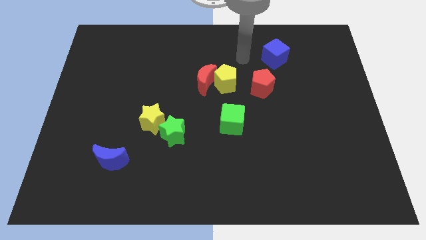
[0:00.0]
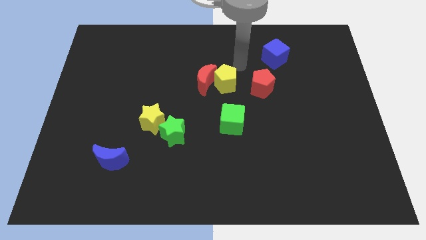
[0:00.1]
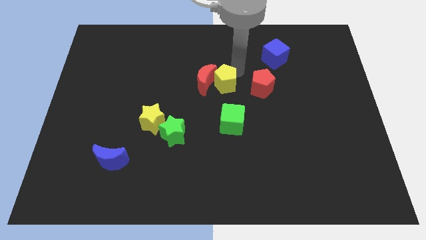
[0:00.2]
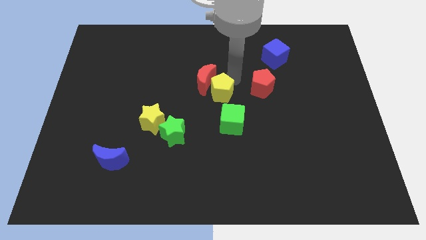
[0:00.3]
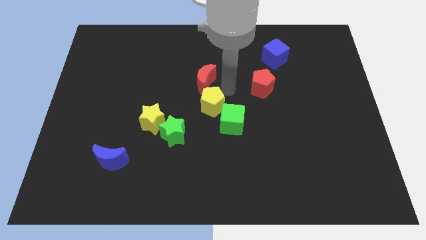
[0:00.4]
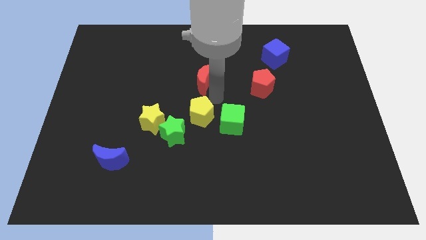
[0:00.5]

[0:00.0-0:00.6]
pull the red moon apart from the yellow pentagon

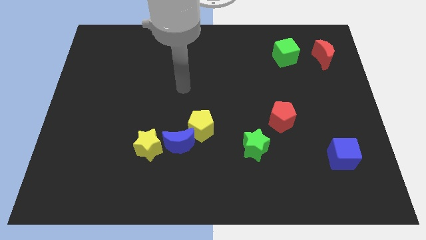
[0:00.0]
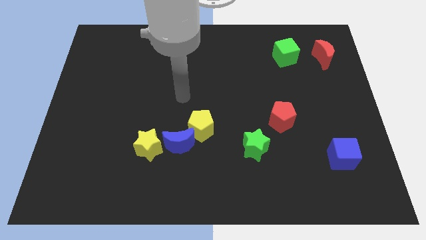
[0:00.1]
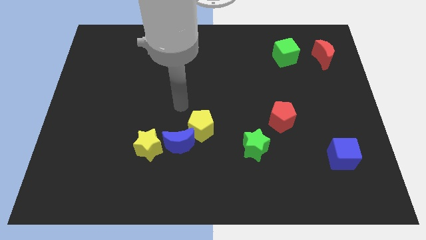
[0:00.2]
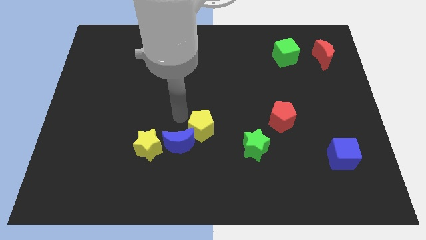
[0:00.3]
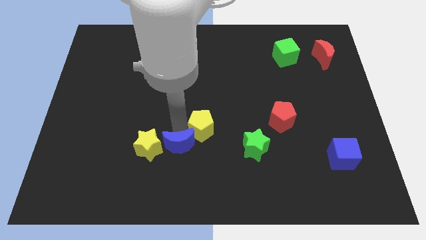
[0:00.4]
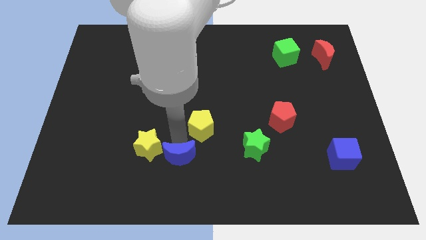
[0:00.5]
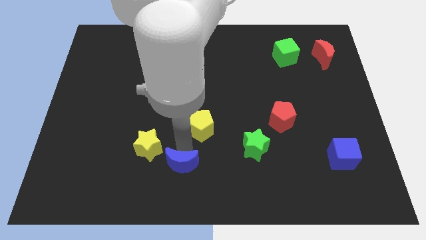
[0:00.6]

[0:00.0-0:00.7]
move the yellow pentagon away from the blue moon

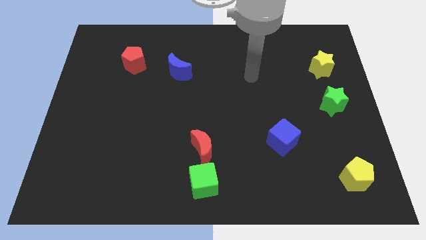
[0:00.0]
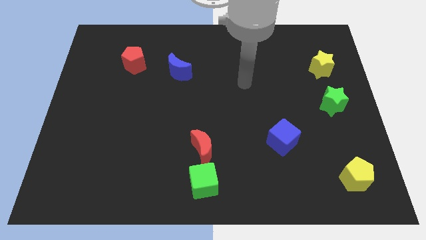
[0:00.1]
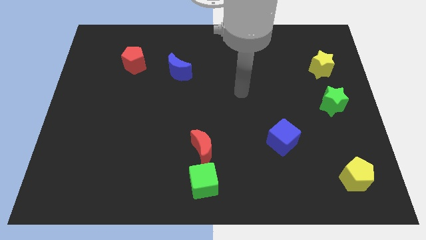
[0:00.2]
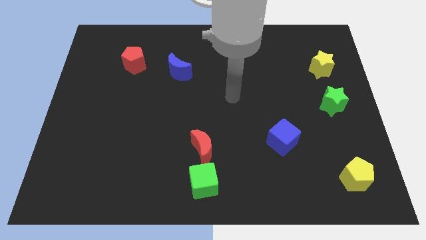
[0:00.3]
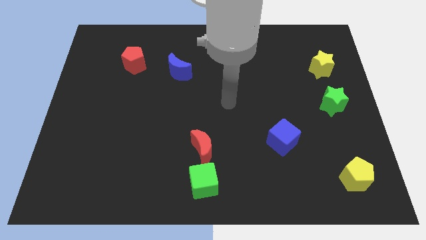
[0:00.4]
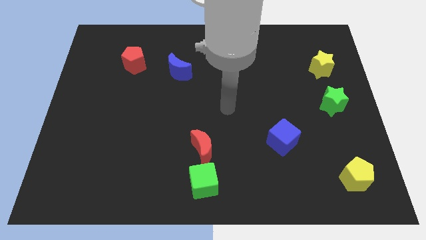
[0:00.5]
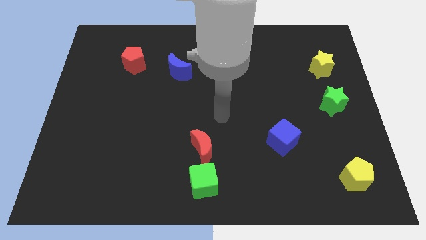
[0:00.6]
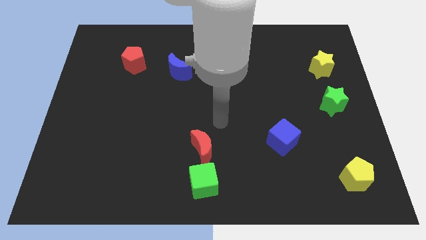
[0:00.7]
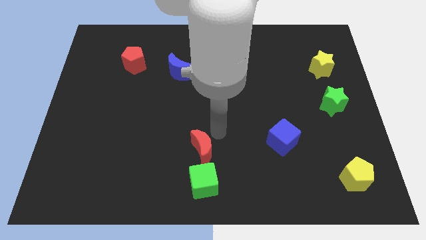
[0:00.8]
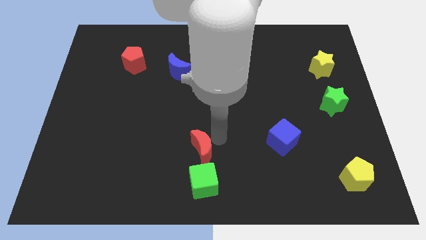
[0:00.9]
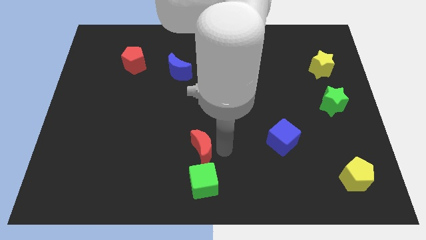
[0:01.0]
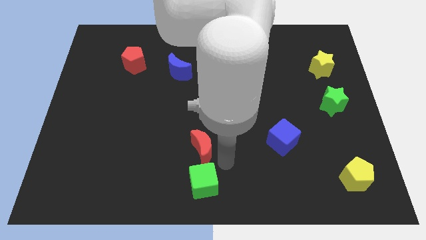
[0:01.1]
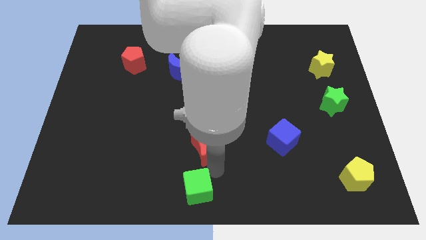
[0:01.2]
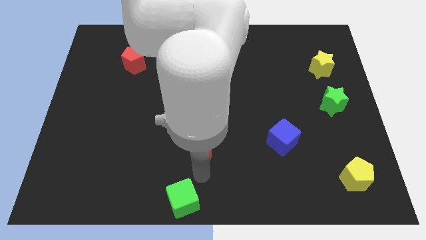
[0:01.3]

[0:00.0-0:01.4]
separate the red moon from the green cube

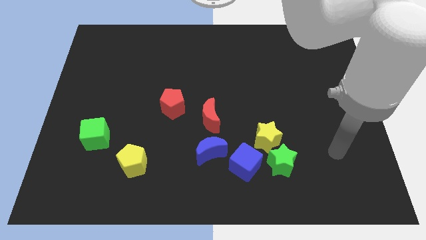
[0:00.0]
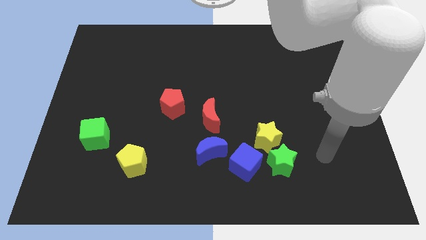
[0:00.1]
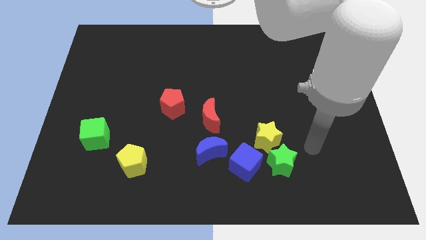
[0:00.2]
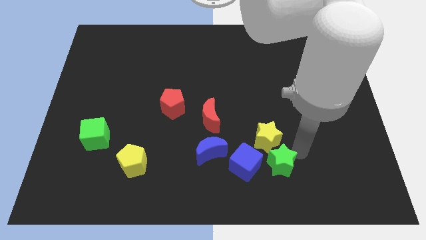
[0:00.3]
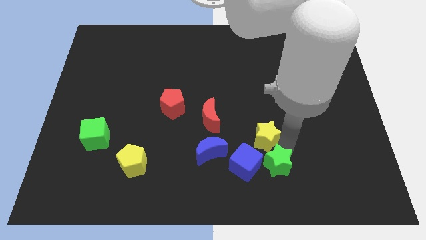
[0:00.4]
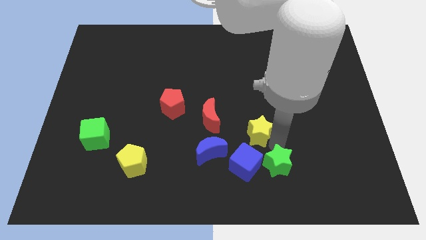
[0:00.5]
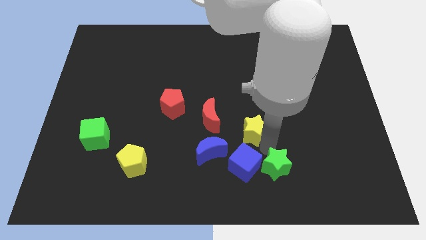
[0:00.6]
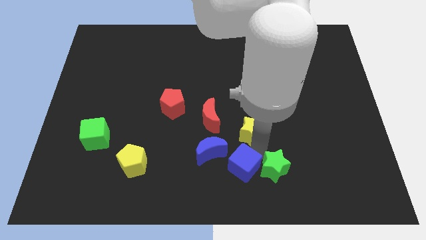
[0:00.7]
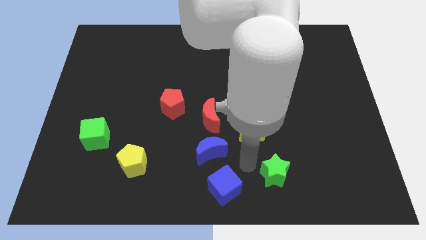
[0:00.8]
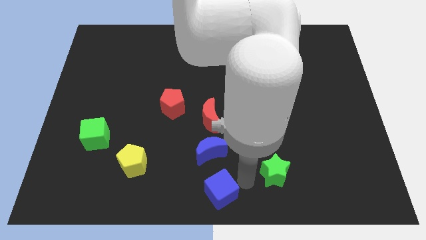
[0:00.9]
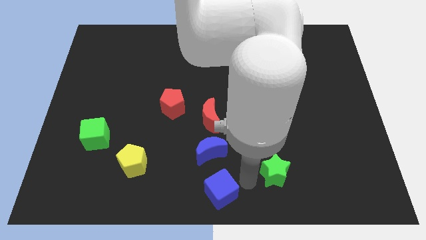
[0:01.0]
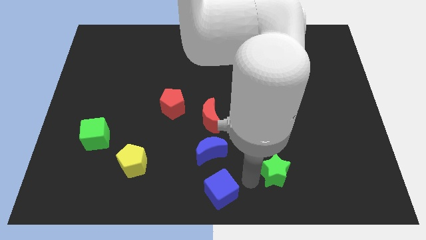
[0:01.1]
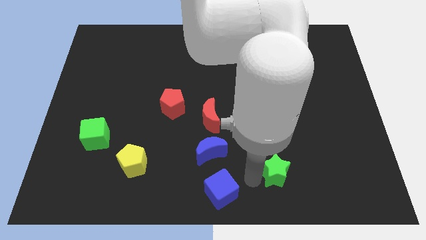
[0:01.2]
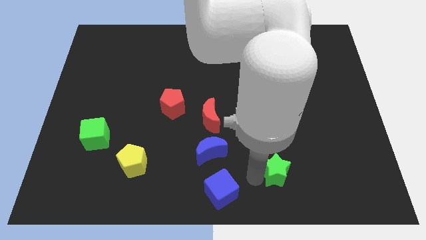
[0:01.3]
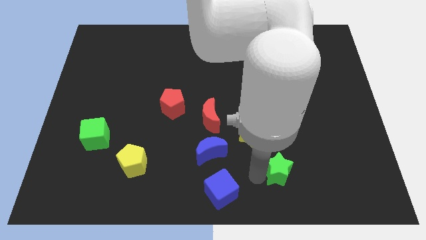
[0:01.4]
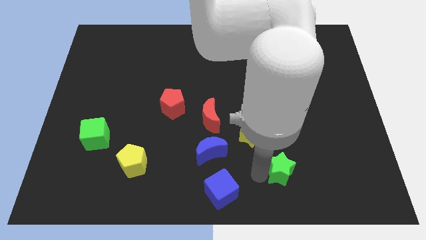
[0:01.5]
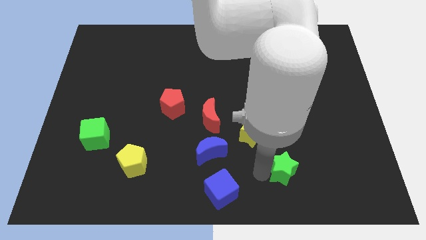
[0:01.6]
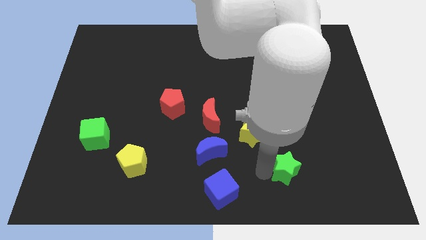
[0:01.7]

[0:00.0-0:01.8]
move the green star away from the yellow star and blue cube

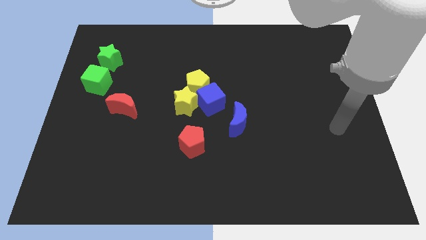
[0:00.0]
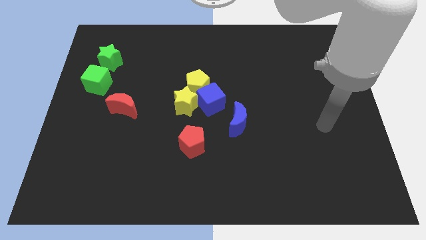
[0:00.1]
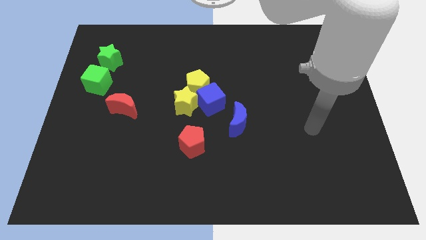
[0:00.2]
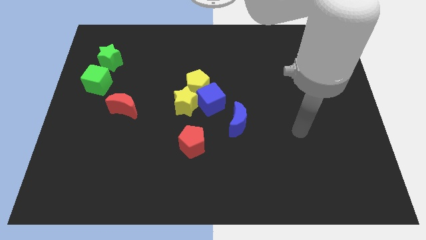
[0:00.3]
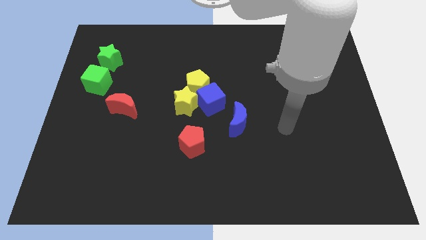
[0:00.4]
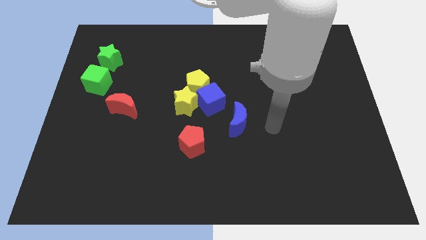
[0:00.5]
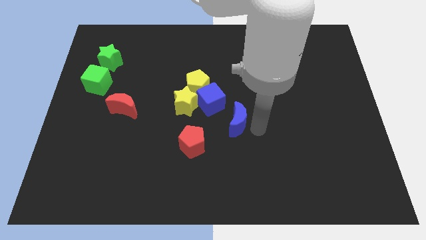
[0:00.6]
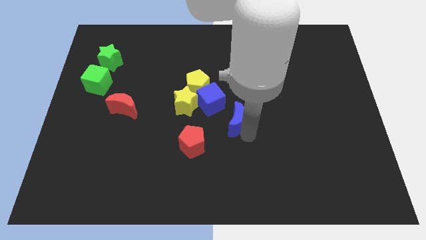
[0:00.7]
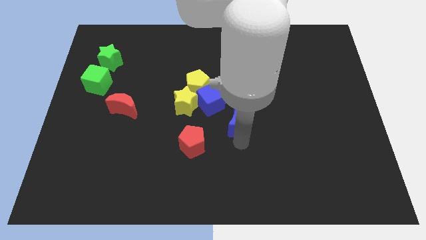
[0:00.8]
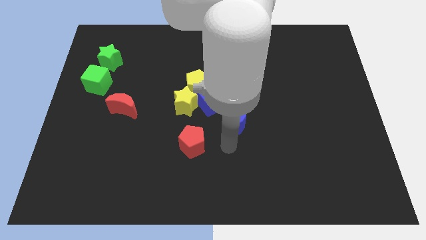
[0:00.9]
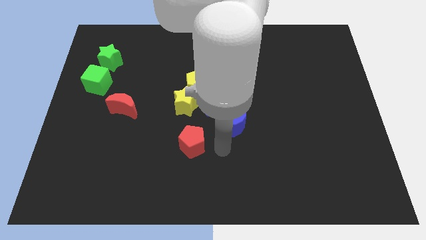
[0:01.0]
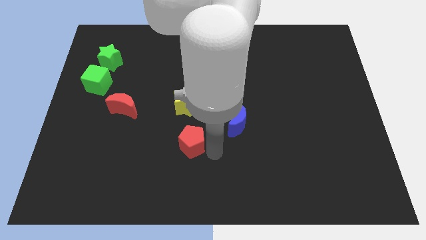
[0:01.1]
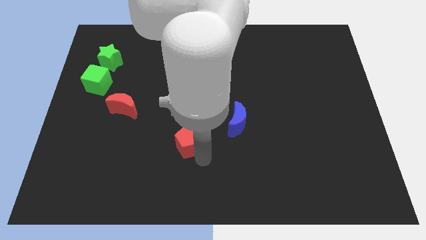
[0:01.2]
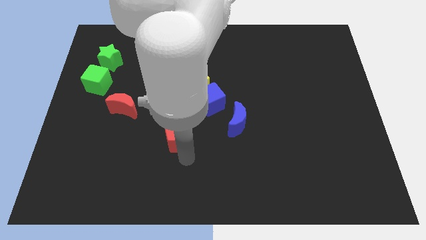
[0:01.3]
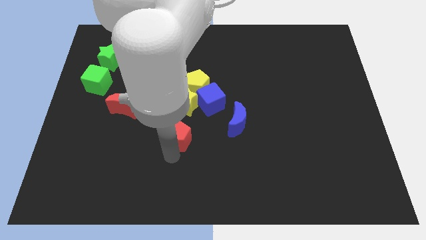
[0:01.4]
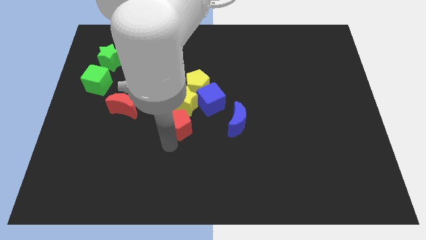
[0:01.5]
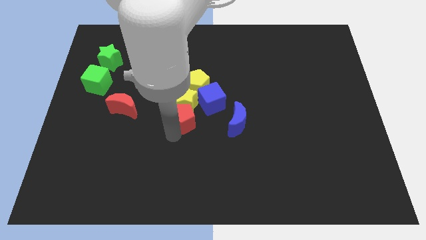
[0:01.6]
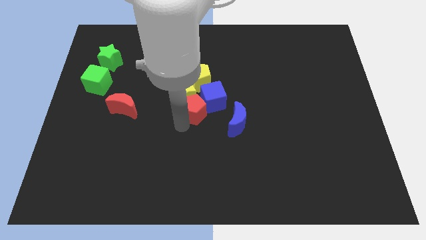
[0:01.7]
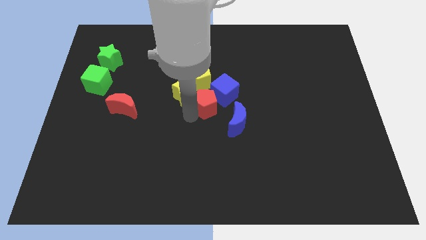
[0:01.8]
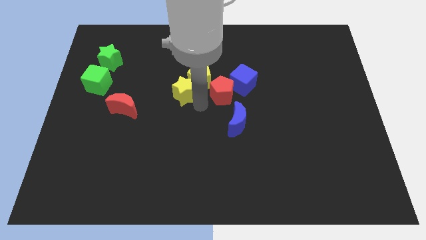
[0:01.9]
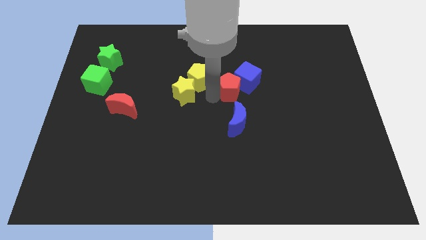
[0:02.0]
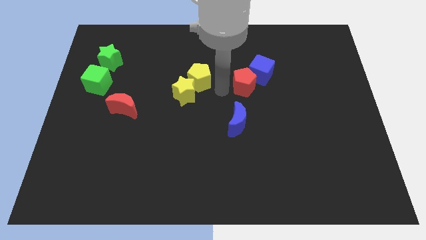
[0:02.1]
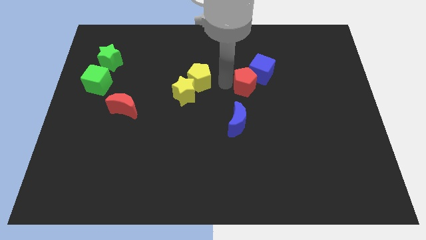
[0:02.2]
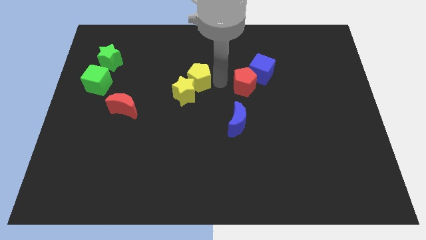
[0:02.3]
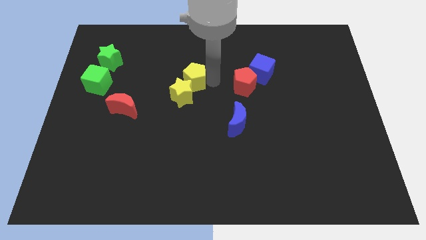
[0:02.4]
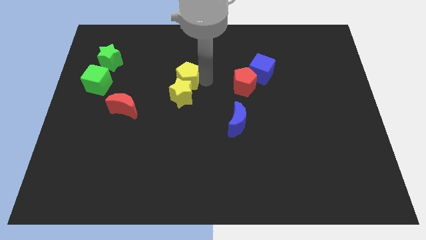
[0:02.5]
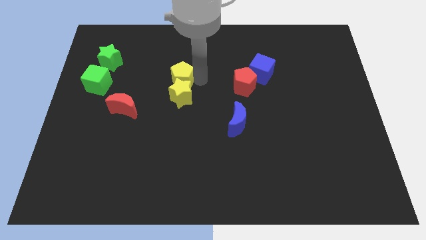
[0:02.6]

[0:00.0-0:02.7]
move the yellow pentagon away from the blue cube and yellow star

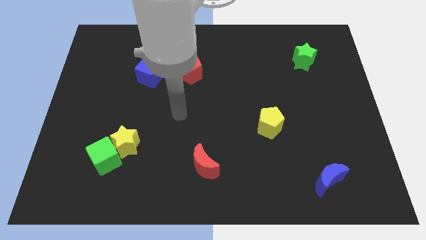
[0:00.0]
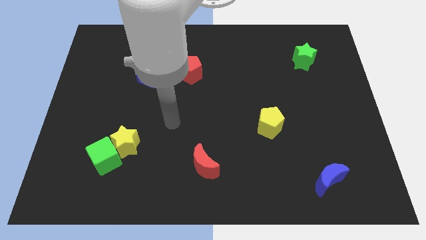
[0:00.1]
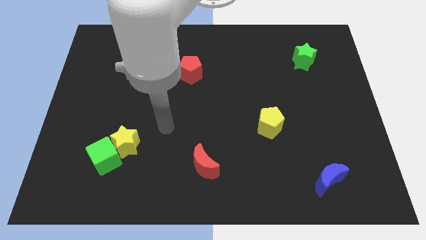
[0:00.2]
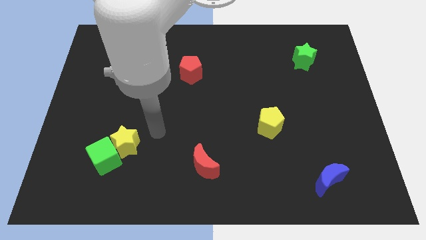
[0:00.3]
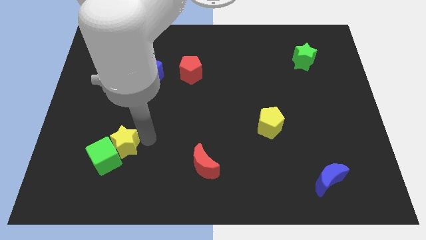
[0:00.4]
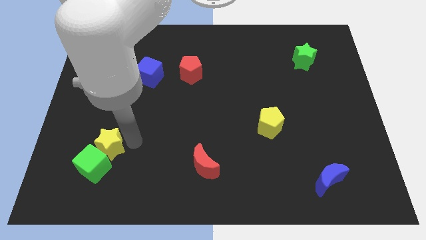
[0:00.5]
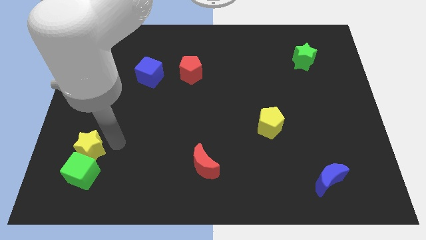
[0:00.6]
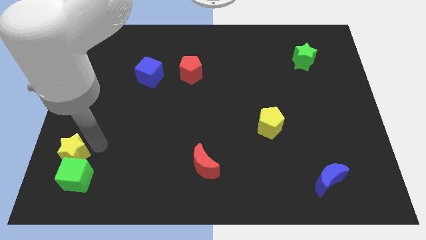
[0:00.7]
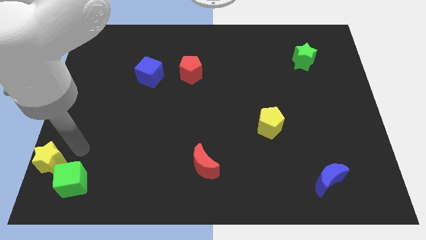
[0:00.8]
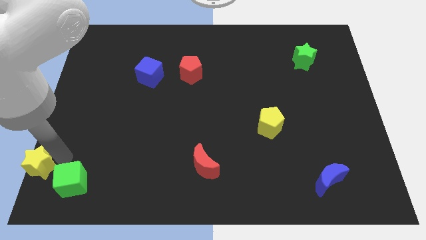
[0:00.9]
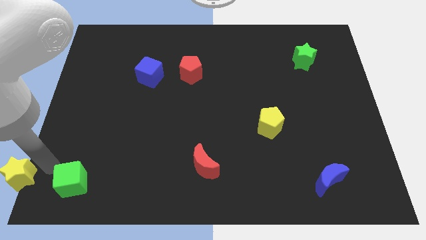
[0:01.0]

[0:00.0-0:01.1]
separate the green cube from the yellow star

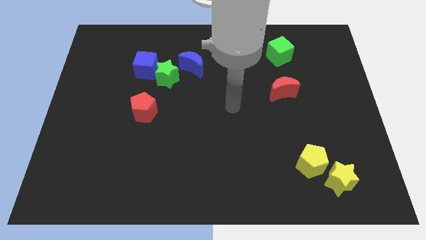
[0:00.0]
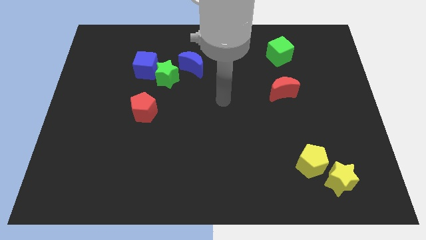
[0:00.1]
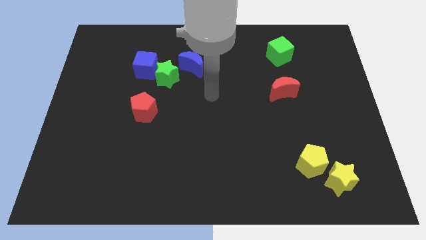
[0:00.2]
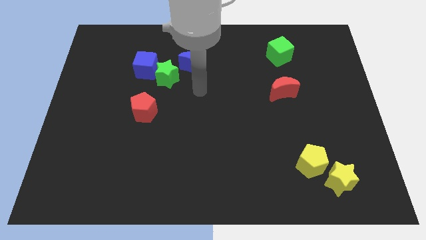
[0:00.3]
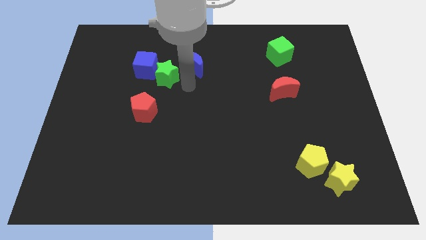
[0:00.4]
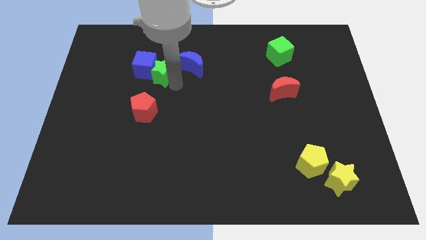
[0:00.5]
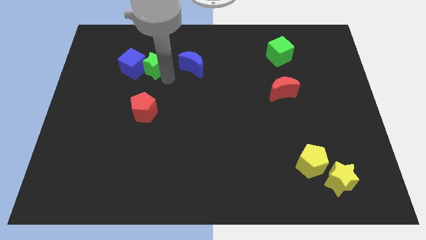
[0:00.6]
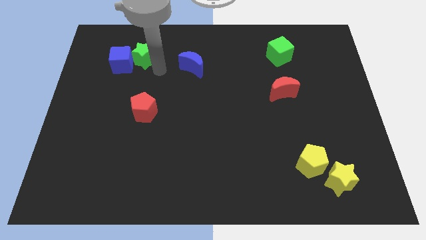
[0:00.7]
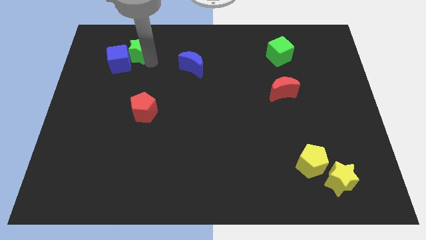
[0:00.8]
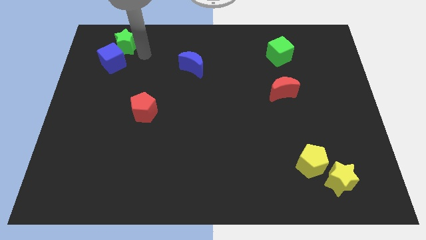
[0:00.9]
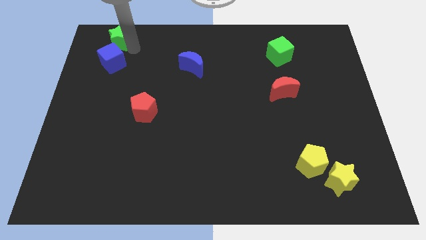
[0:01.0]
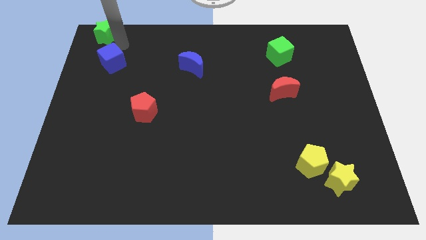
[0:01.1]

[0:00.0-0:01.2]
separate the blue cube from the green star
